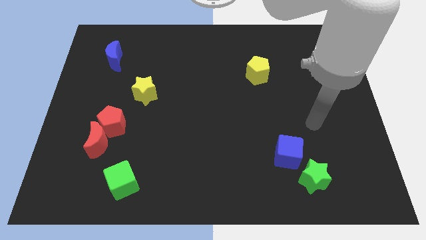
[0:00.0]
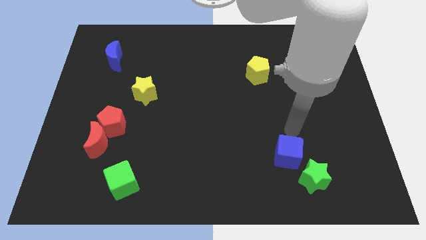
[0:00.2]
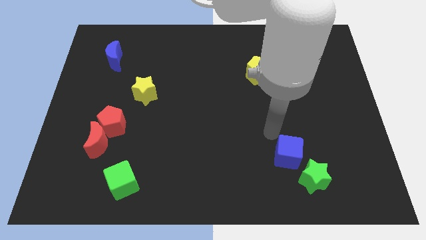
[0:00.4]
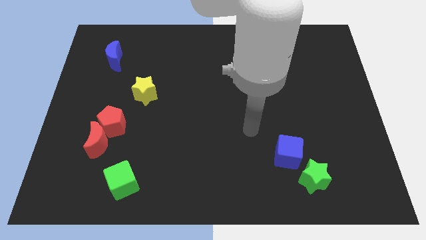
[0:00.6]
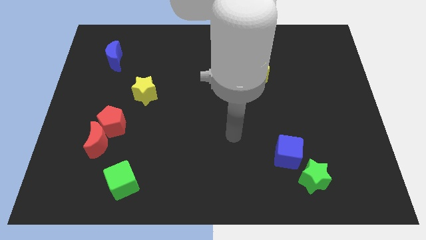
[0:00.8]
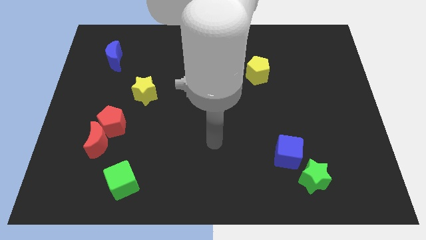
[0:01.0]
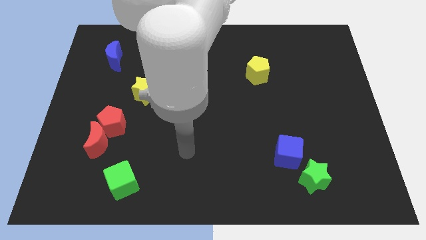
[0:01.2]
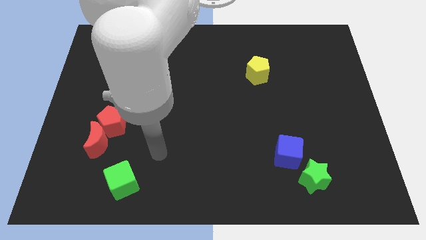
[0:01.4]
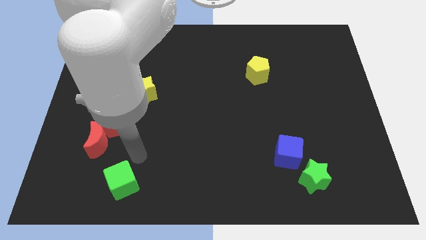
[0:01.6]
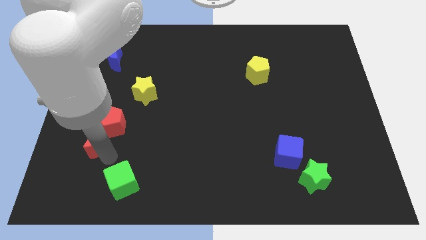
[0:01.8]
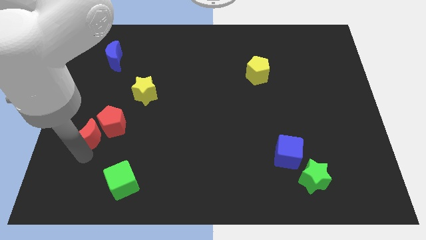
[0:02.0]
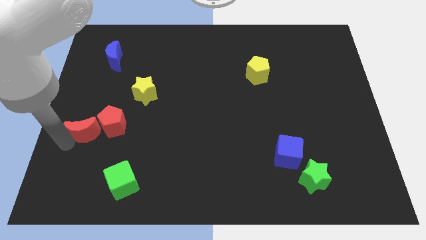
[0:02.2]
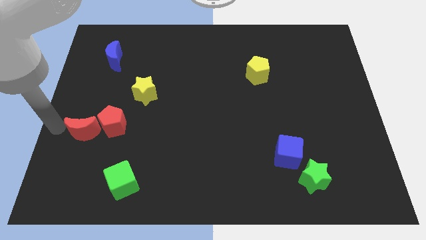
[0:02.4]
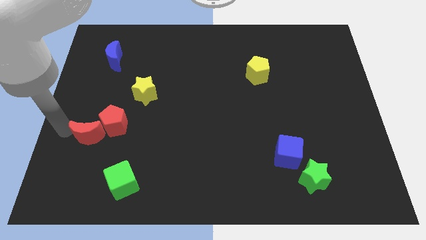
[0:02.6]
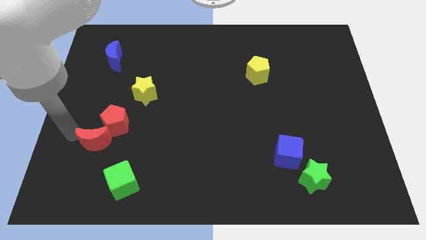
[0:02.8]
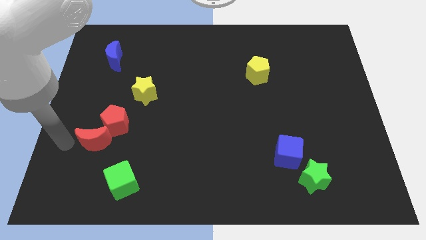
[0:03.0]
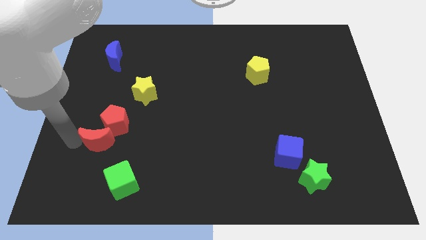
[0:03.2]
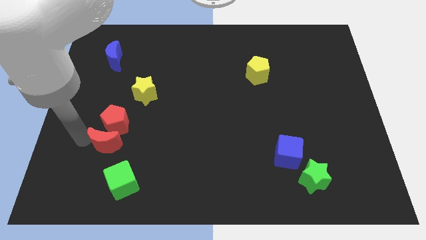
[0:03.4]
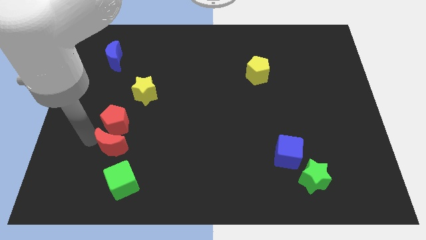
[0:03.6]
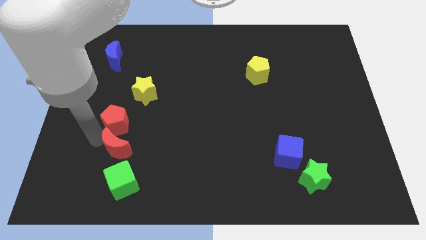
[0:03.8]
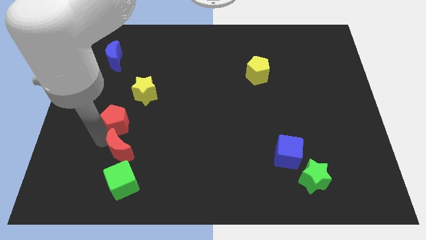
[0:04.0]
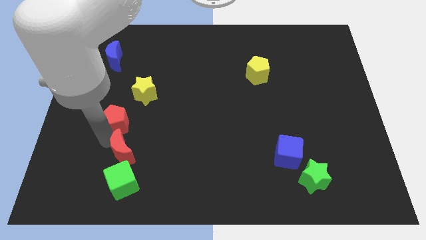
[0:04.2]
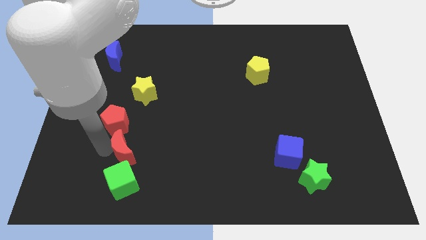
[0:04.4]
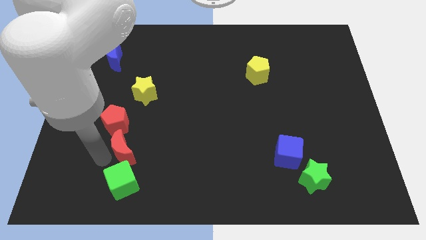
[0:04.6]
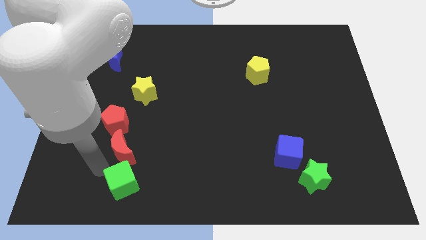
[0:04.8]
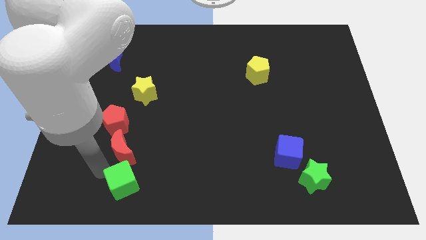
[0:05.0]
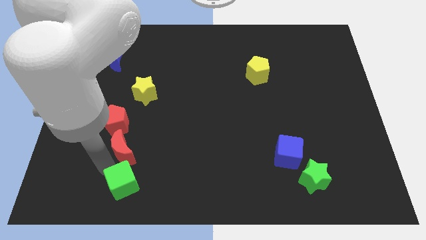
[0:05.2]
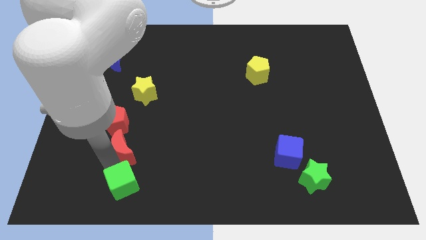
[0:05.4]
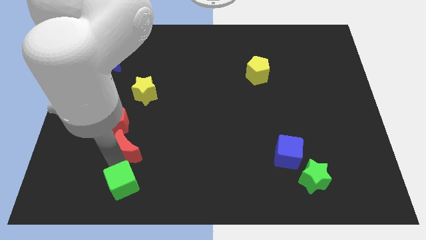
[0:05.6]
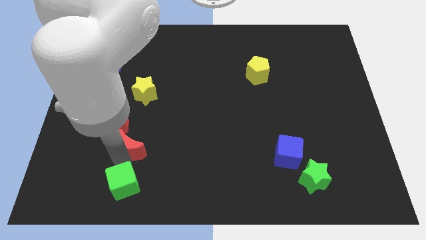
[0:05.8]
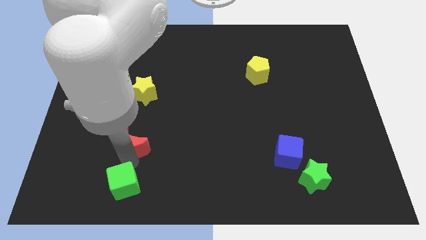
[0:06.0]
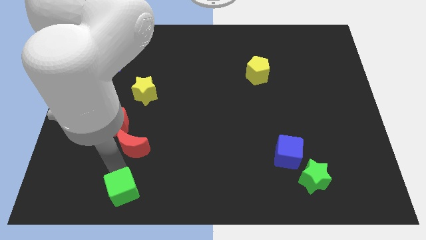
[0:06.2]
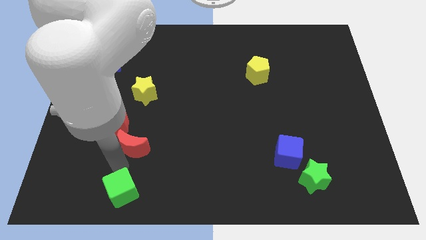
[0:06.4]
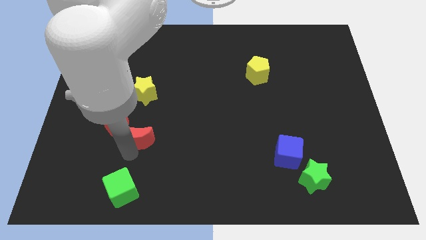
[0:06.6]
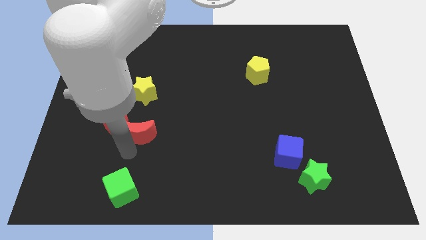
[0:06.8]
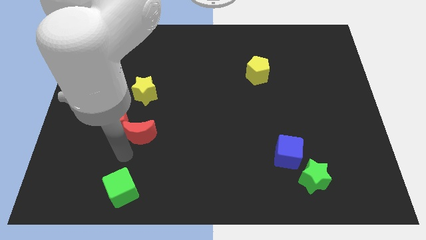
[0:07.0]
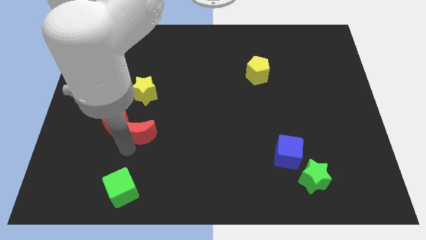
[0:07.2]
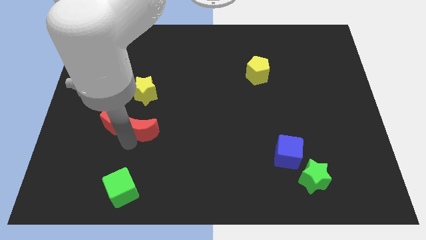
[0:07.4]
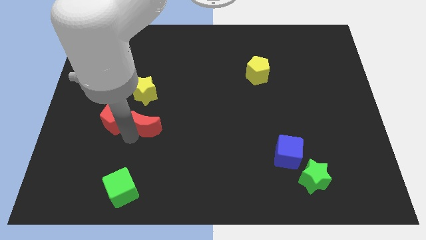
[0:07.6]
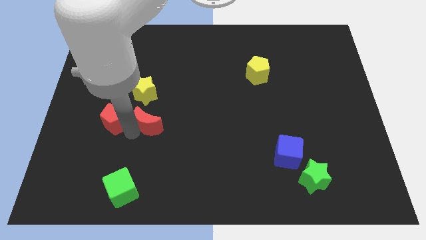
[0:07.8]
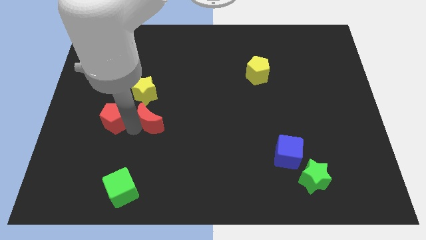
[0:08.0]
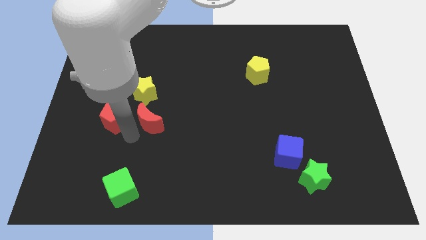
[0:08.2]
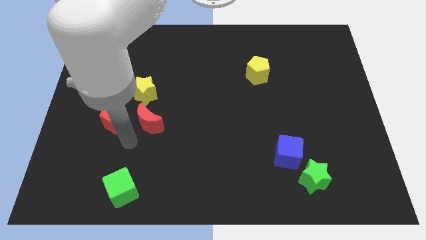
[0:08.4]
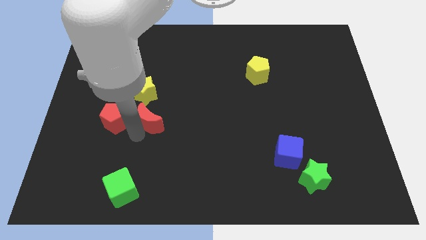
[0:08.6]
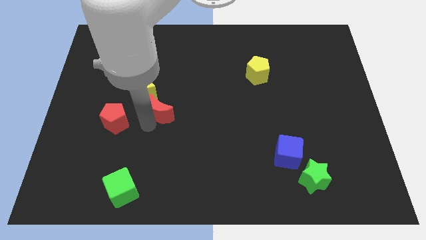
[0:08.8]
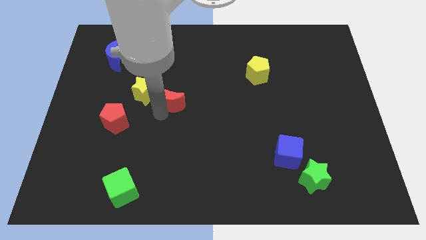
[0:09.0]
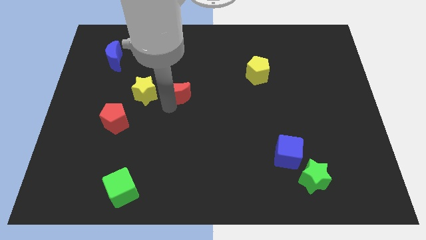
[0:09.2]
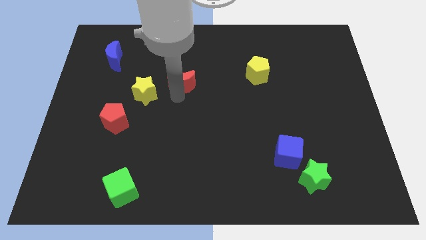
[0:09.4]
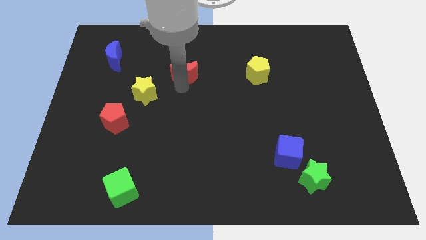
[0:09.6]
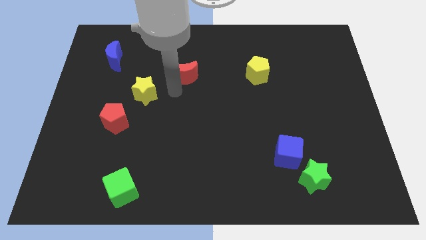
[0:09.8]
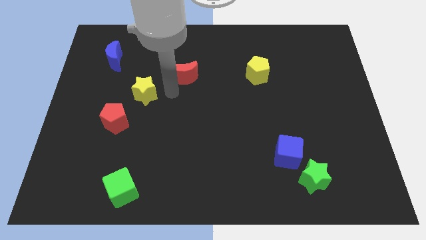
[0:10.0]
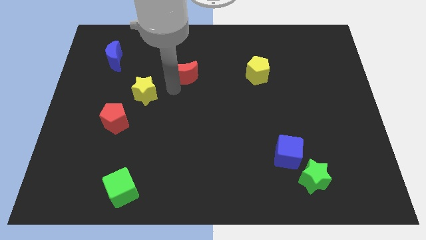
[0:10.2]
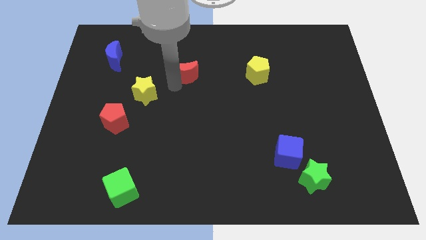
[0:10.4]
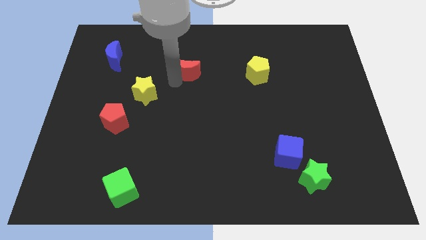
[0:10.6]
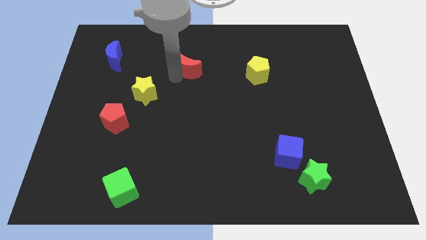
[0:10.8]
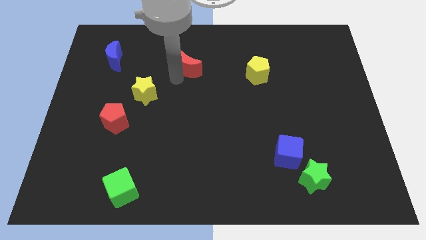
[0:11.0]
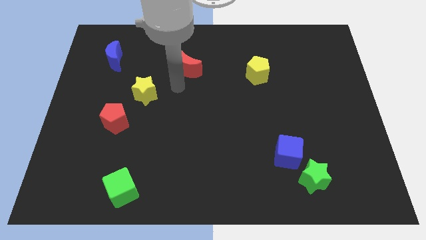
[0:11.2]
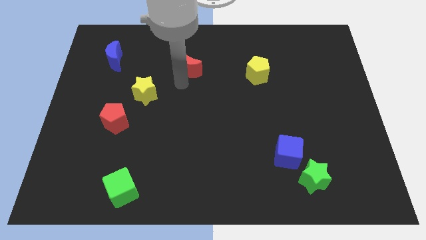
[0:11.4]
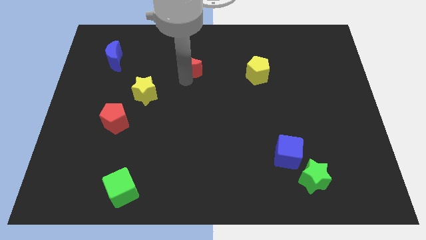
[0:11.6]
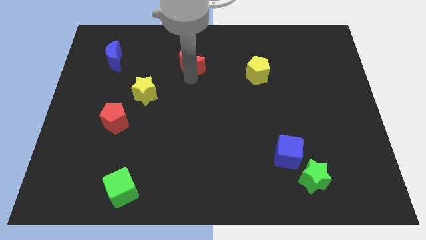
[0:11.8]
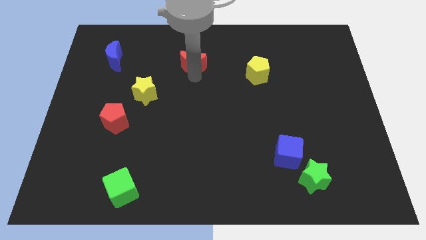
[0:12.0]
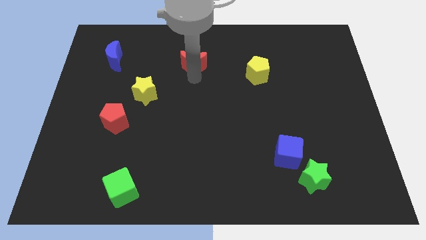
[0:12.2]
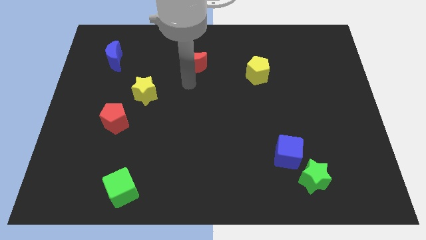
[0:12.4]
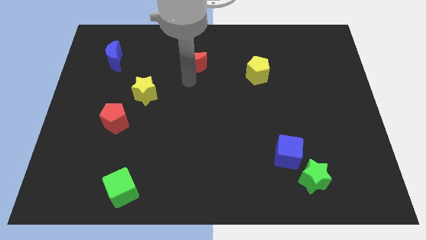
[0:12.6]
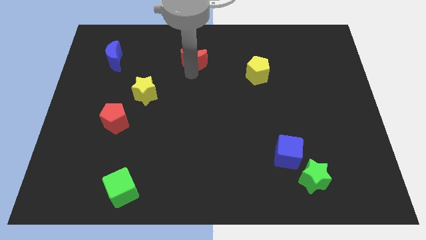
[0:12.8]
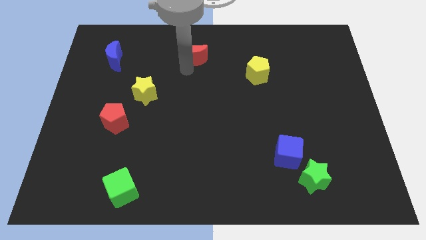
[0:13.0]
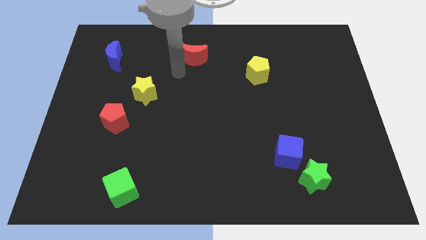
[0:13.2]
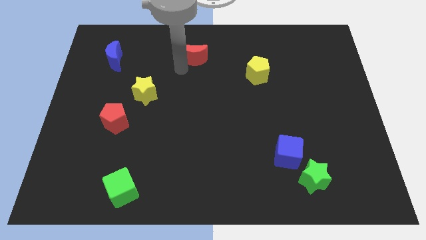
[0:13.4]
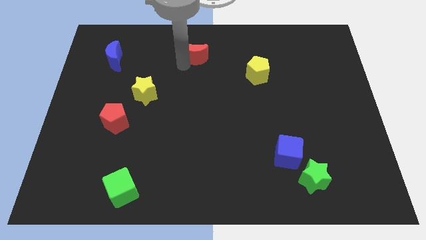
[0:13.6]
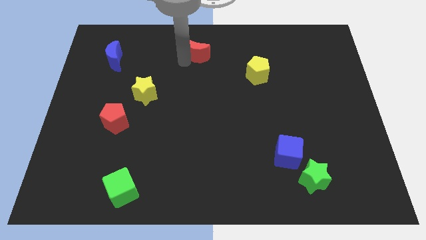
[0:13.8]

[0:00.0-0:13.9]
put the red moon to the towards your base
